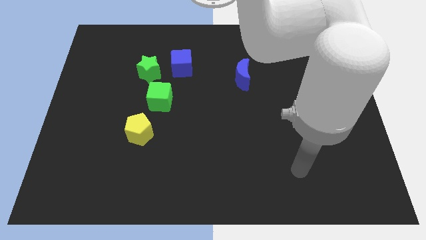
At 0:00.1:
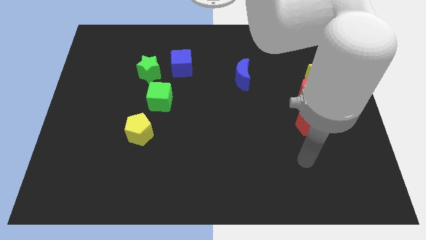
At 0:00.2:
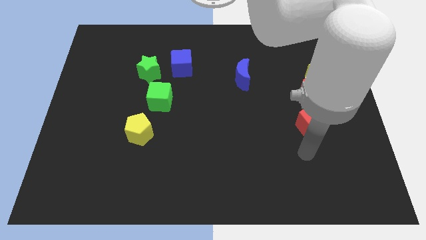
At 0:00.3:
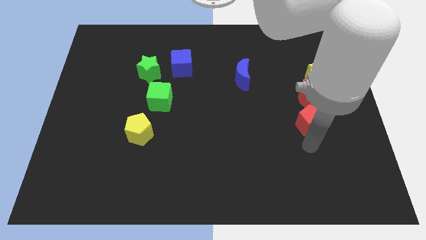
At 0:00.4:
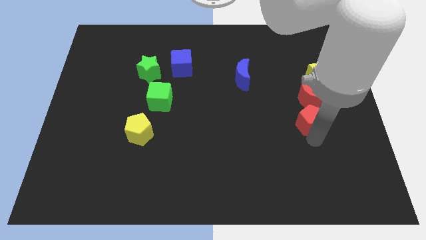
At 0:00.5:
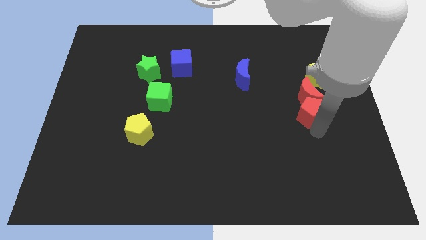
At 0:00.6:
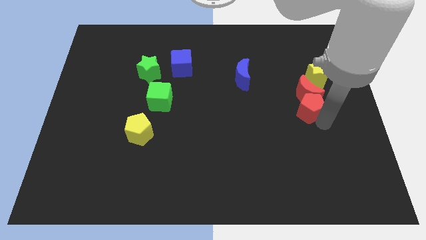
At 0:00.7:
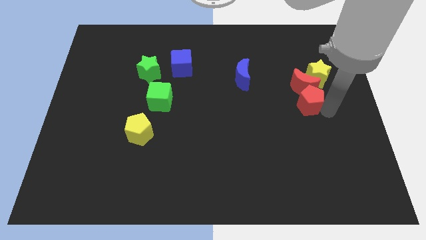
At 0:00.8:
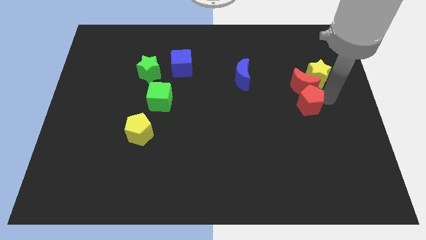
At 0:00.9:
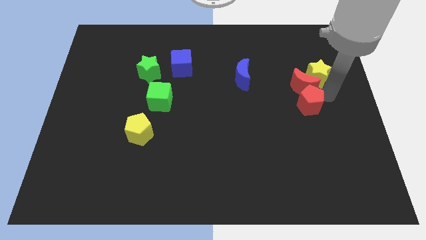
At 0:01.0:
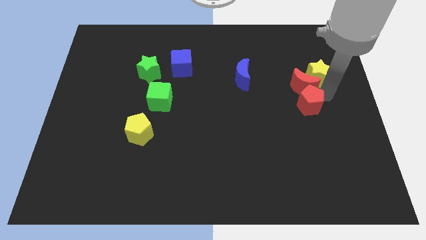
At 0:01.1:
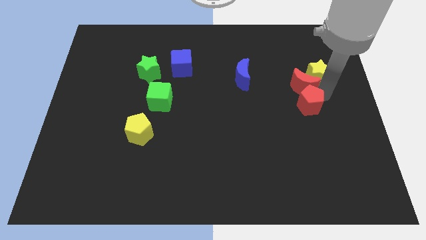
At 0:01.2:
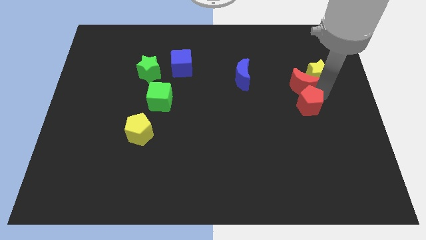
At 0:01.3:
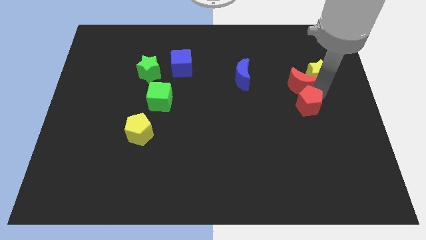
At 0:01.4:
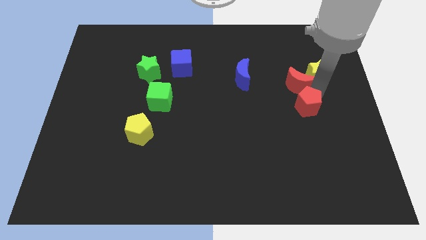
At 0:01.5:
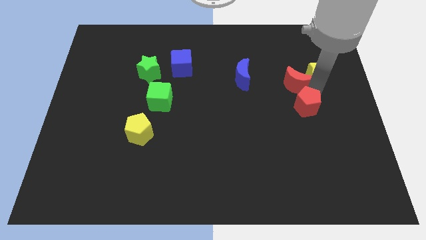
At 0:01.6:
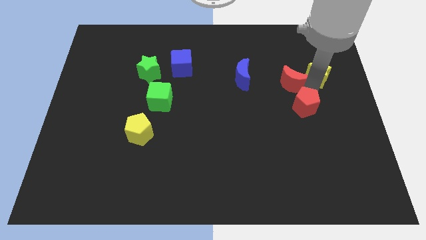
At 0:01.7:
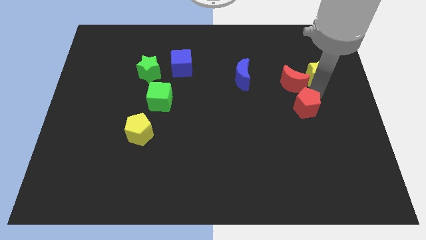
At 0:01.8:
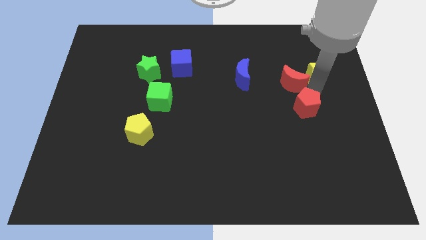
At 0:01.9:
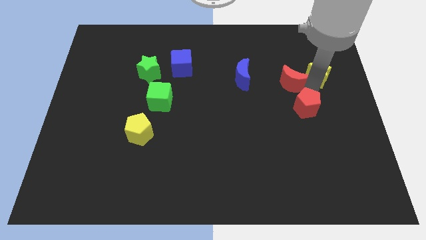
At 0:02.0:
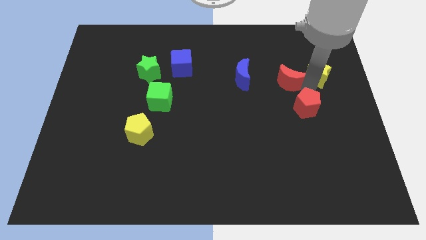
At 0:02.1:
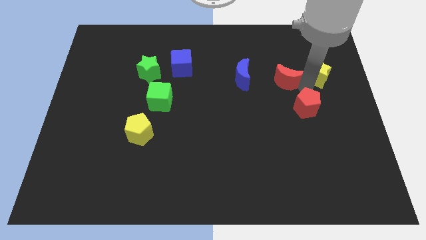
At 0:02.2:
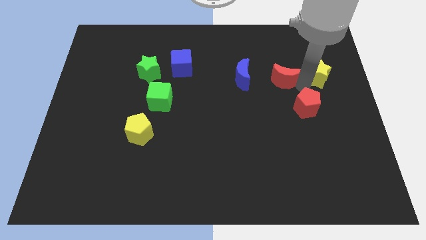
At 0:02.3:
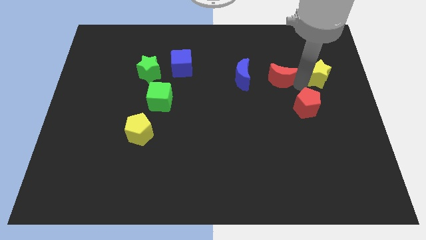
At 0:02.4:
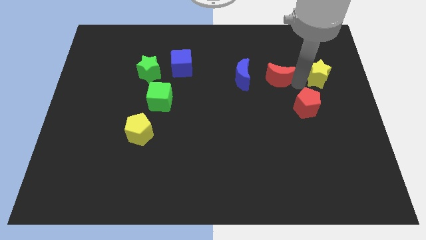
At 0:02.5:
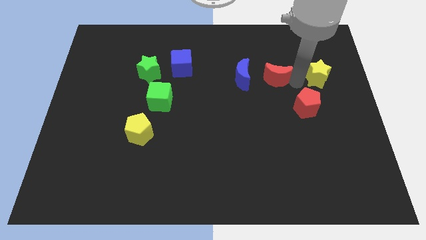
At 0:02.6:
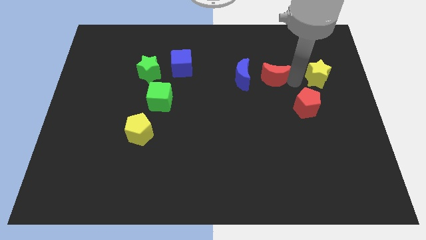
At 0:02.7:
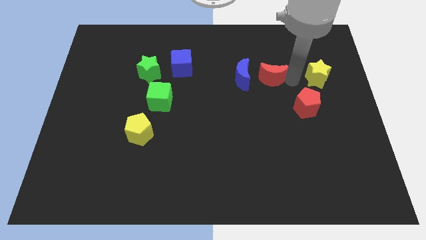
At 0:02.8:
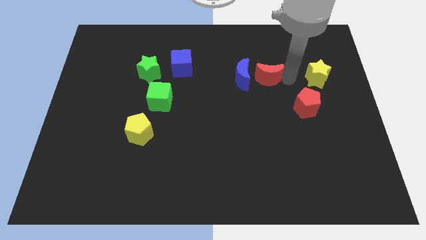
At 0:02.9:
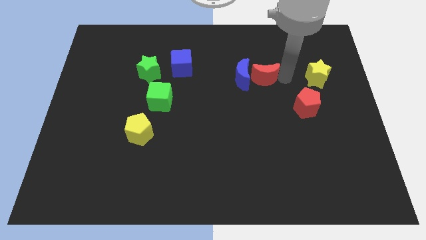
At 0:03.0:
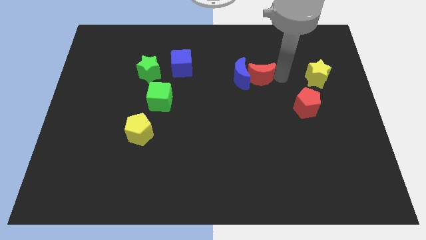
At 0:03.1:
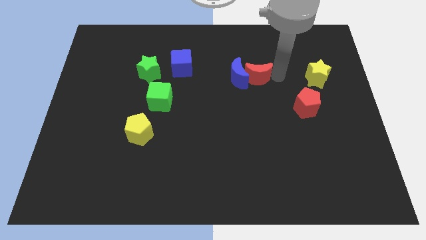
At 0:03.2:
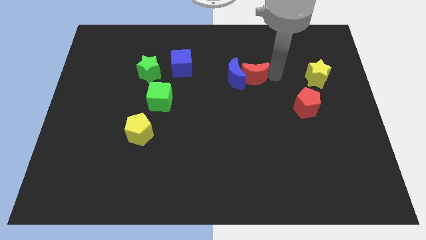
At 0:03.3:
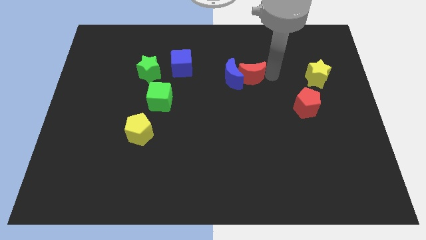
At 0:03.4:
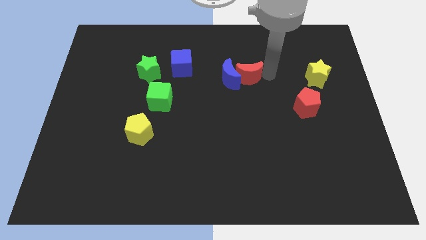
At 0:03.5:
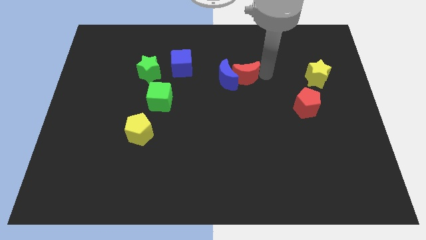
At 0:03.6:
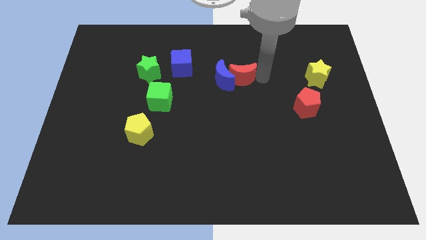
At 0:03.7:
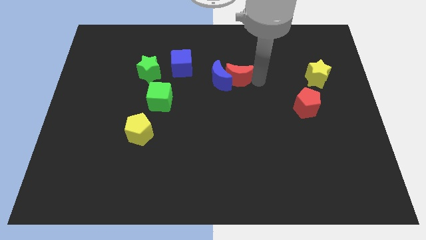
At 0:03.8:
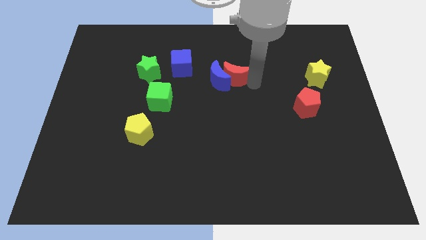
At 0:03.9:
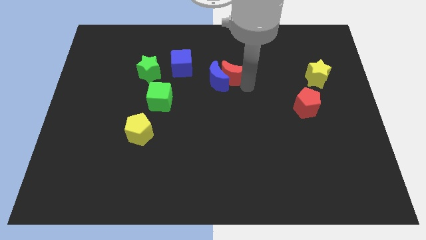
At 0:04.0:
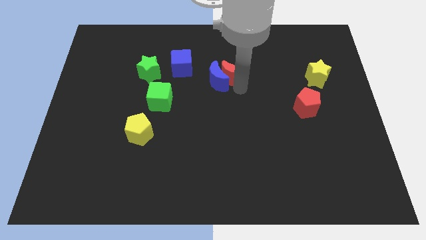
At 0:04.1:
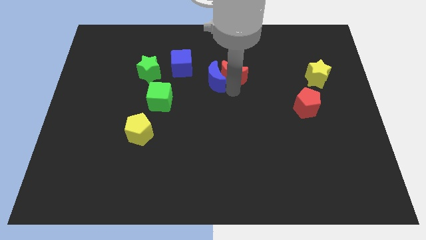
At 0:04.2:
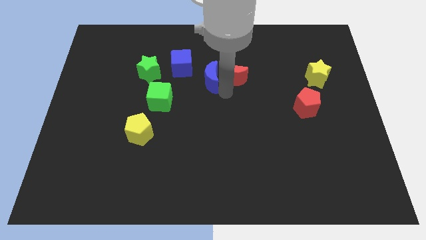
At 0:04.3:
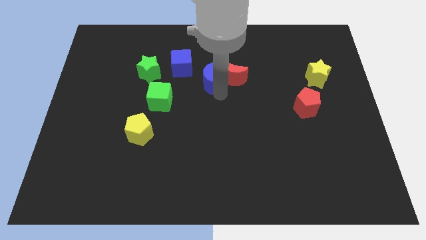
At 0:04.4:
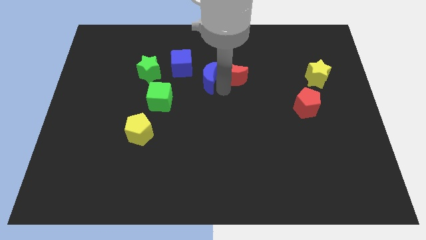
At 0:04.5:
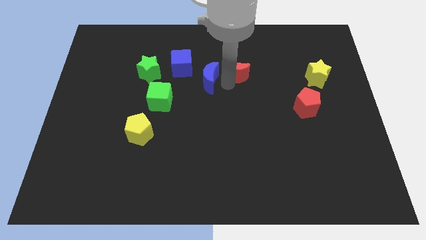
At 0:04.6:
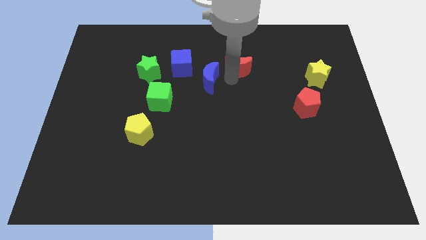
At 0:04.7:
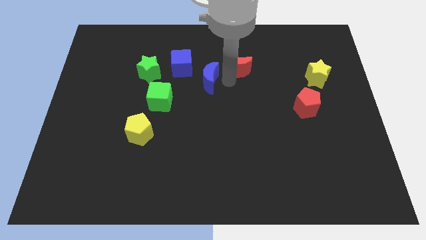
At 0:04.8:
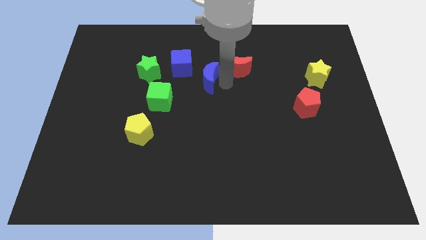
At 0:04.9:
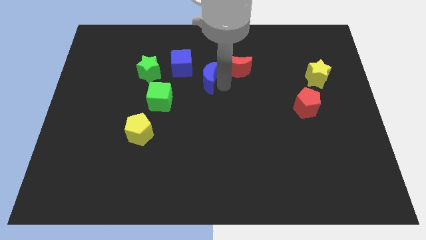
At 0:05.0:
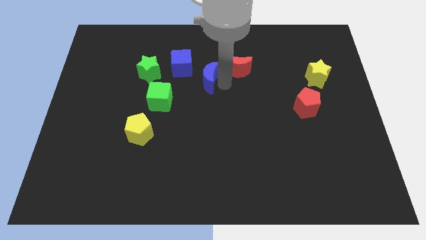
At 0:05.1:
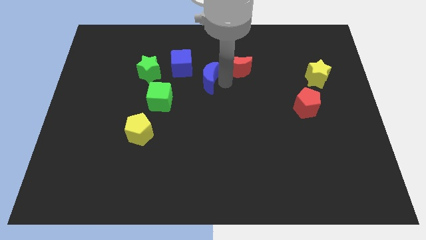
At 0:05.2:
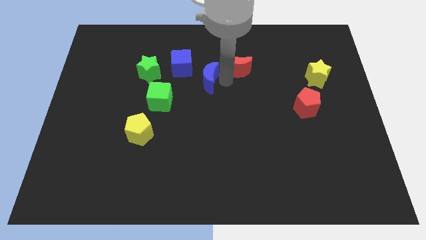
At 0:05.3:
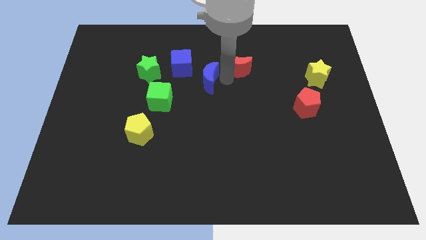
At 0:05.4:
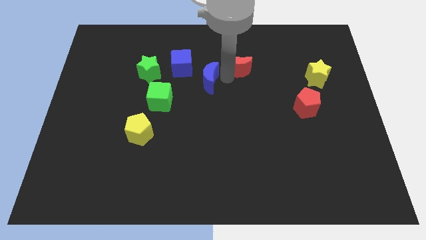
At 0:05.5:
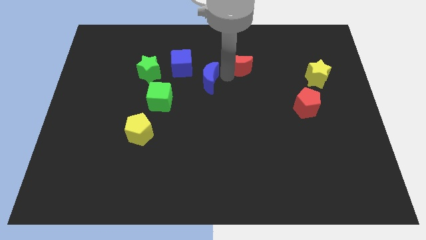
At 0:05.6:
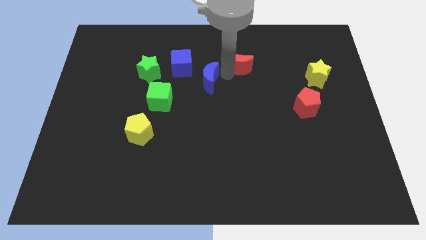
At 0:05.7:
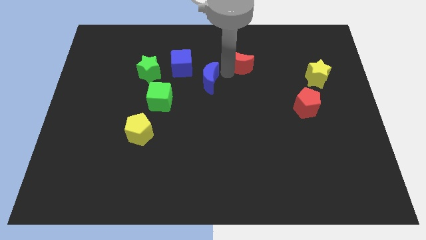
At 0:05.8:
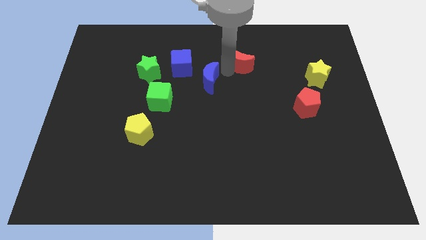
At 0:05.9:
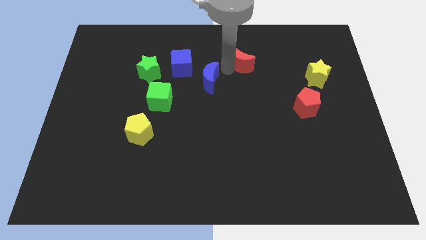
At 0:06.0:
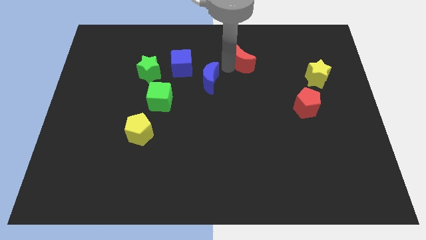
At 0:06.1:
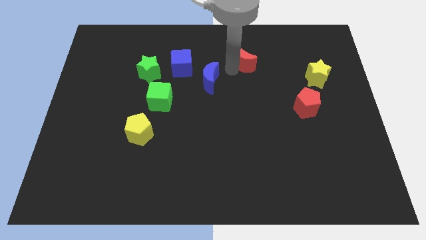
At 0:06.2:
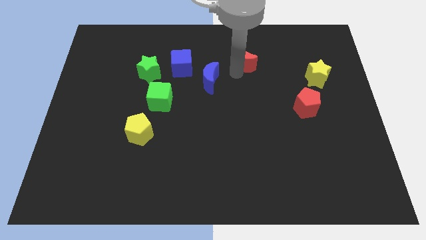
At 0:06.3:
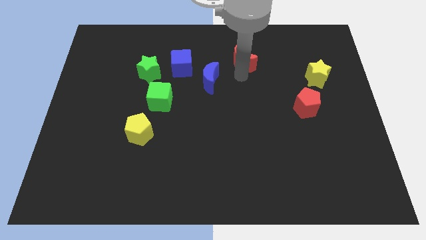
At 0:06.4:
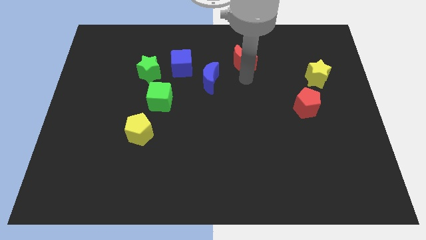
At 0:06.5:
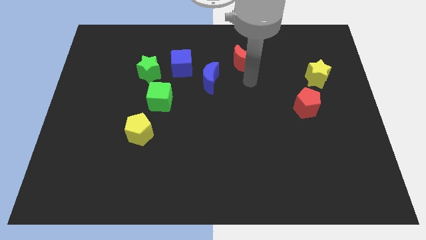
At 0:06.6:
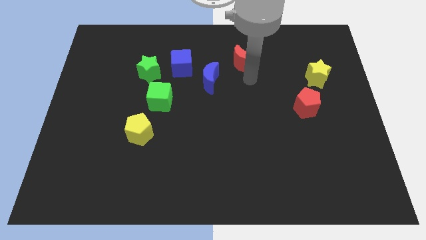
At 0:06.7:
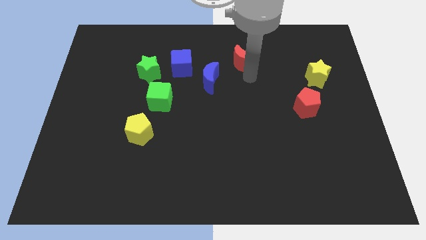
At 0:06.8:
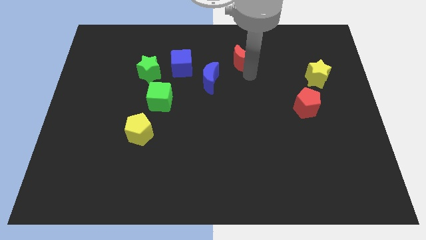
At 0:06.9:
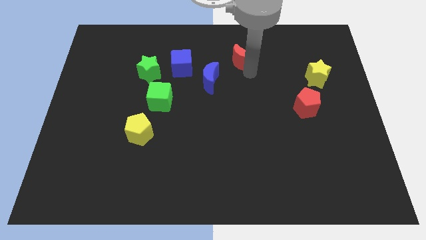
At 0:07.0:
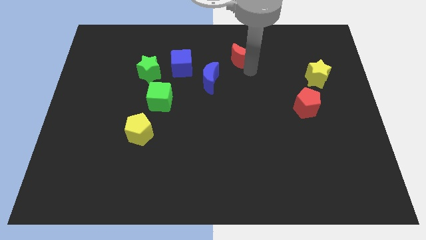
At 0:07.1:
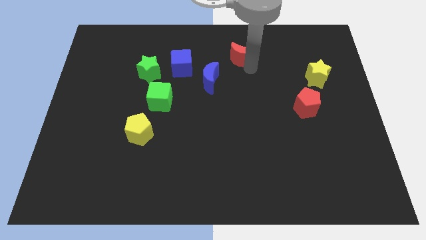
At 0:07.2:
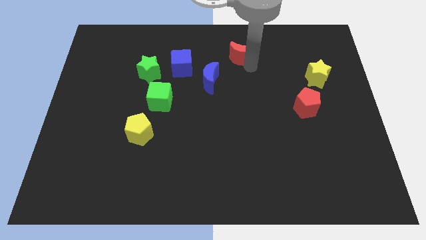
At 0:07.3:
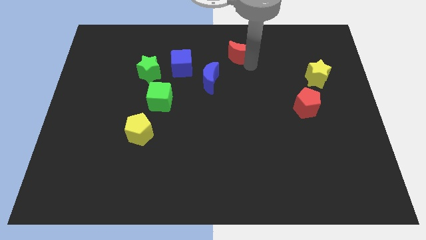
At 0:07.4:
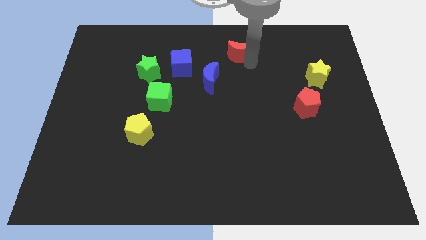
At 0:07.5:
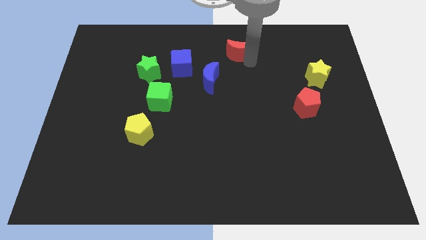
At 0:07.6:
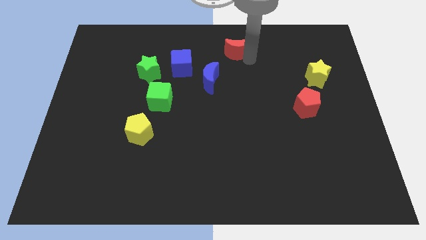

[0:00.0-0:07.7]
push the red moon to the top side
